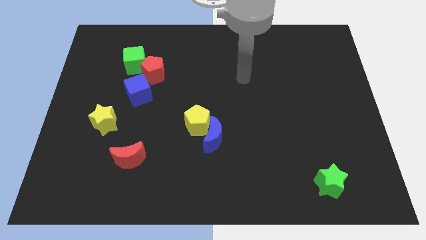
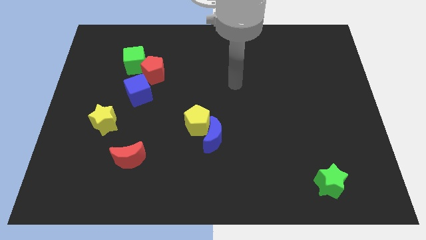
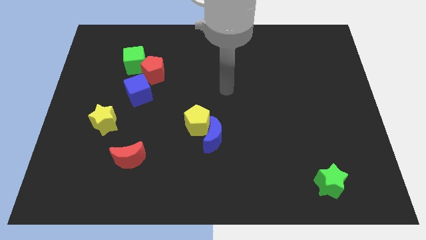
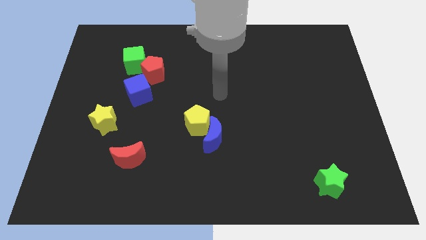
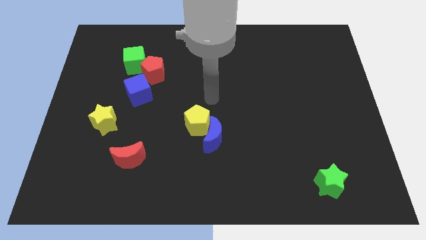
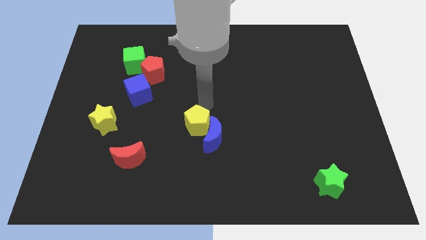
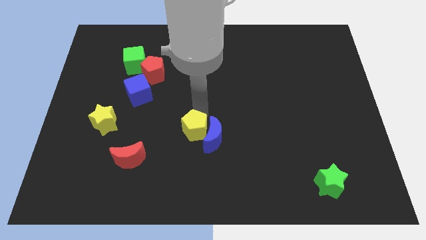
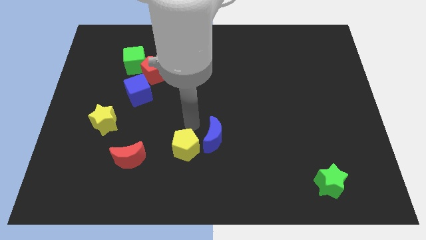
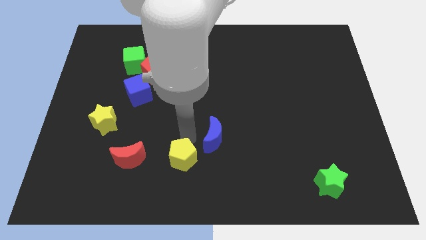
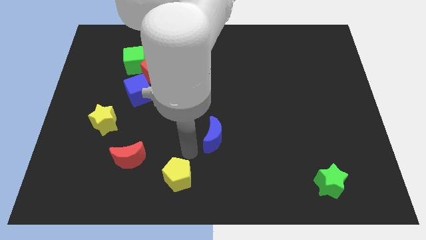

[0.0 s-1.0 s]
move the blue moon away from the yellow pentagon

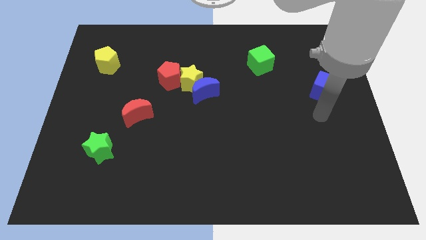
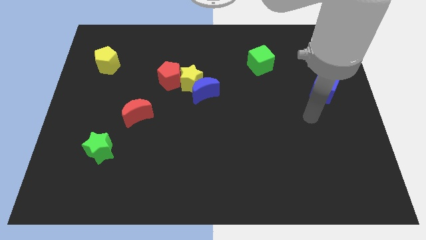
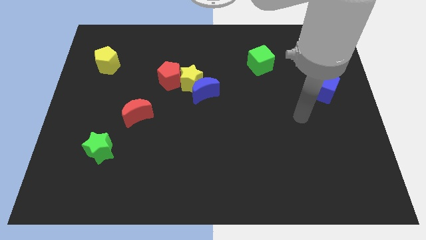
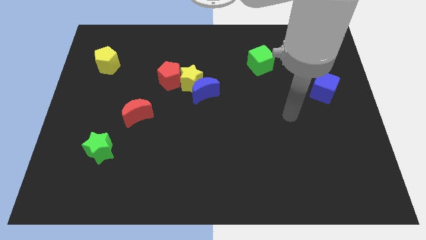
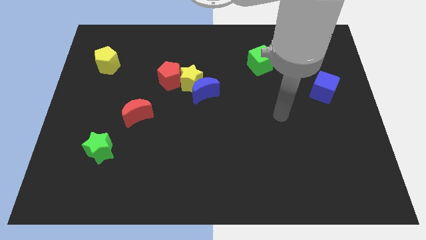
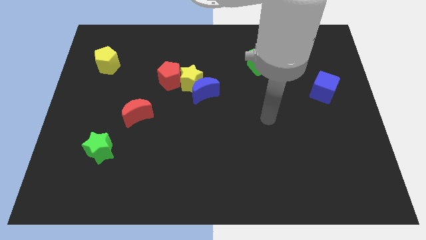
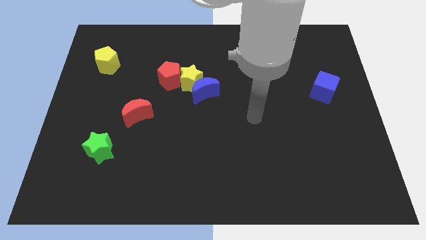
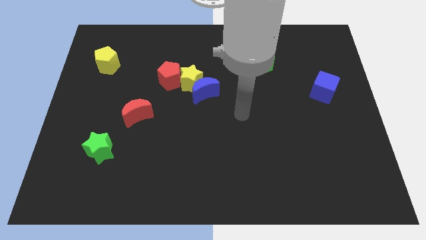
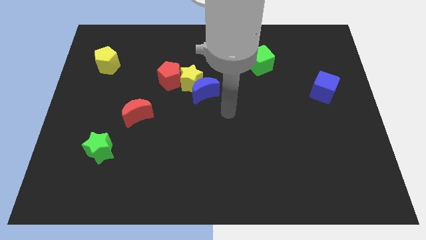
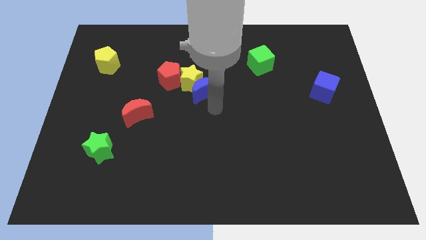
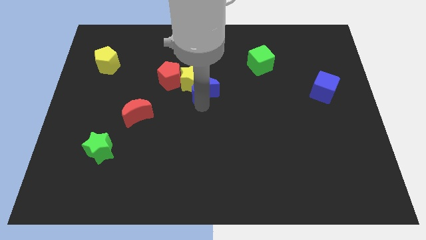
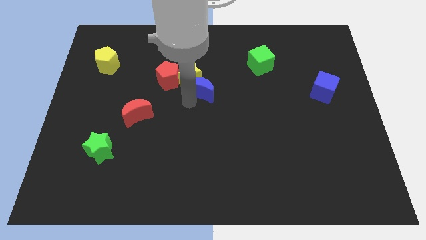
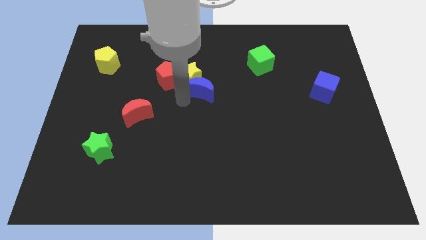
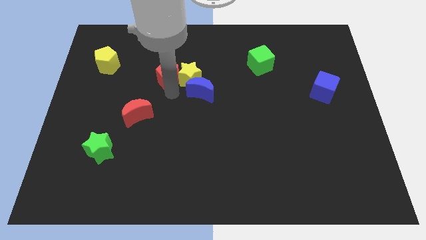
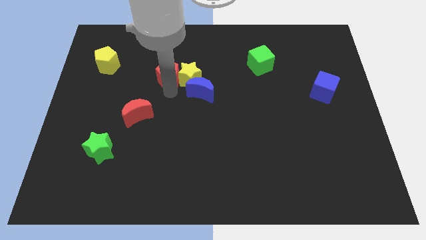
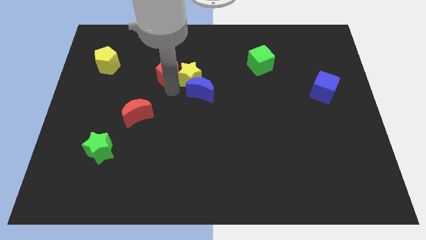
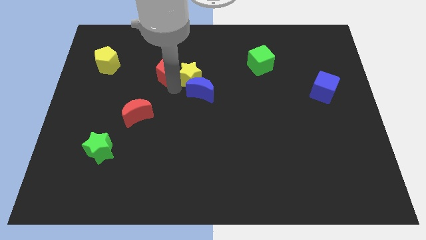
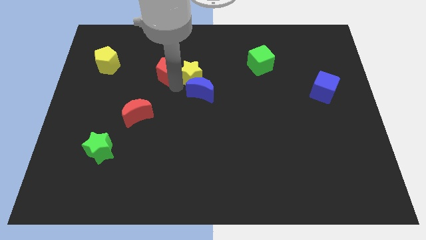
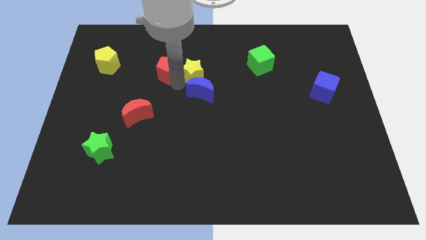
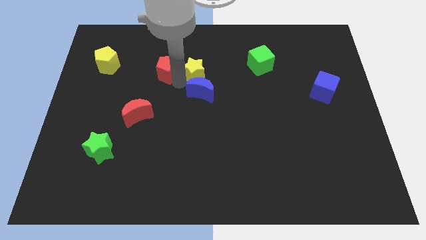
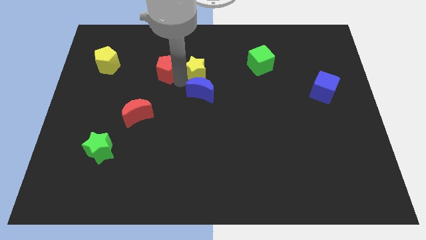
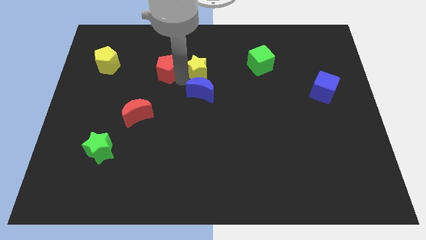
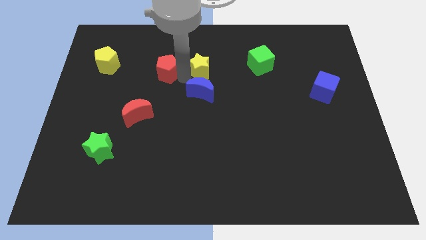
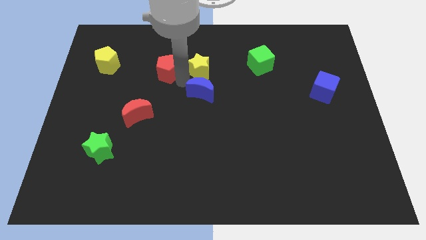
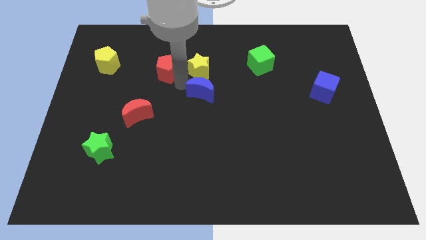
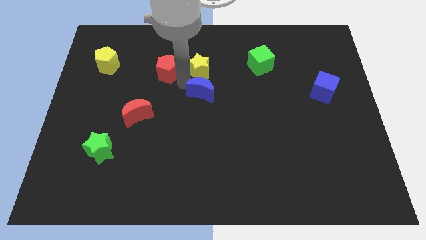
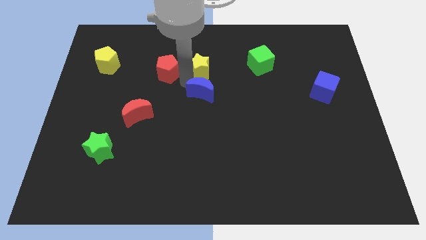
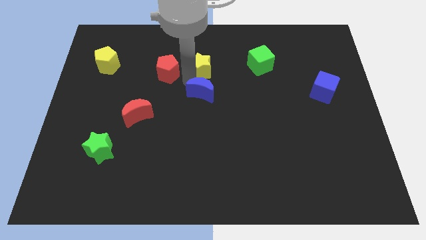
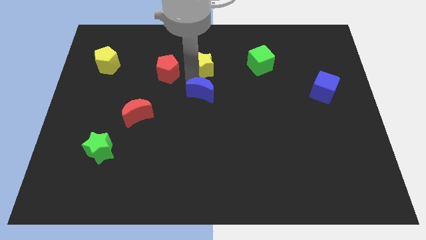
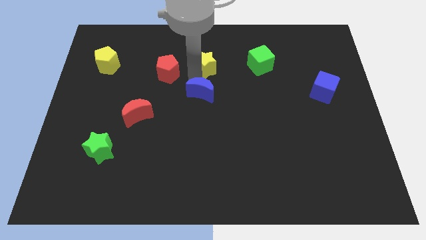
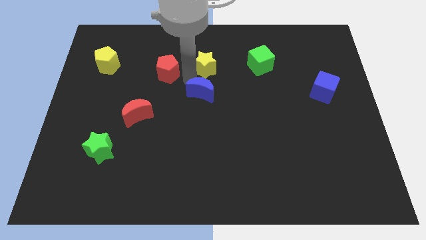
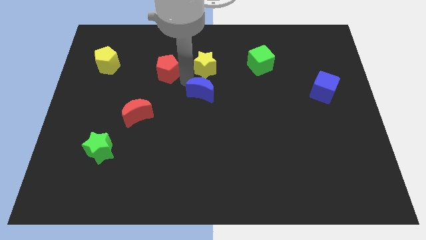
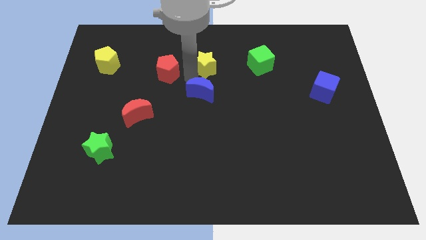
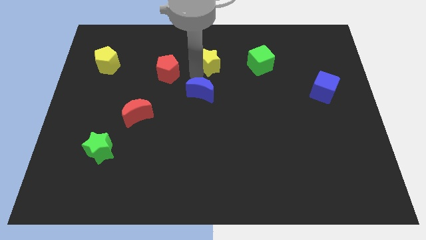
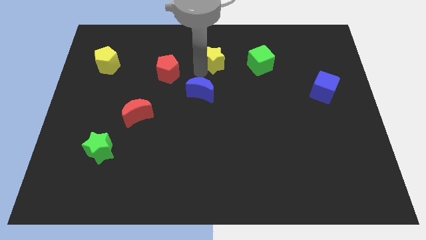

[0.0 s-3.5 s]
pull the yellow star apart from the blue moon and red pentagon

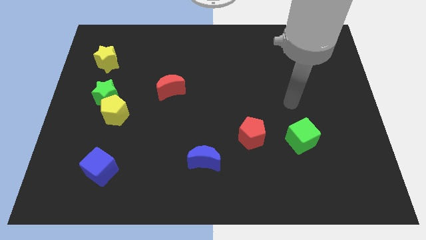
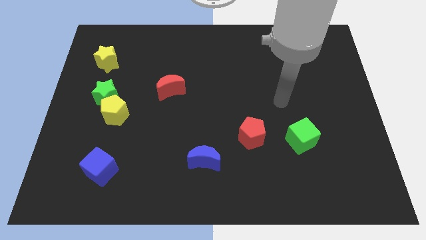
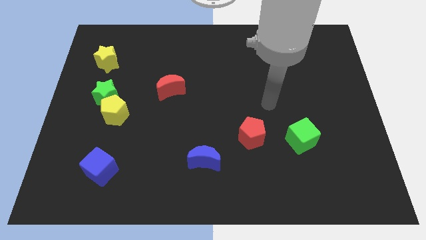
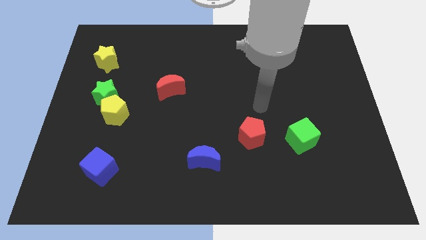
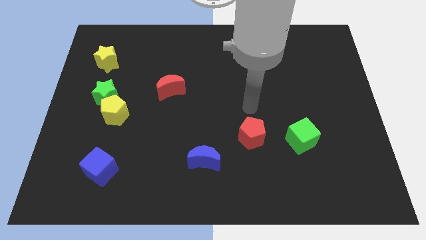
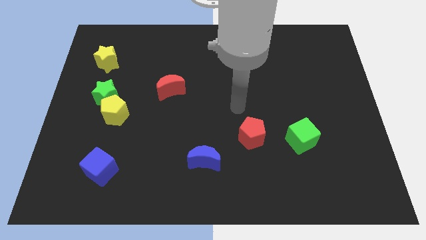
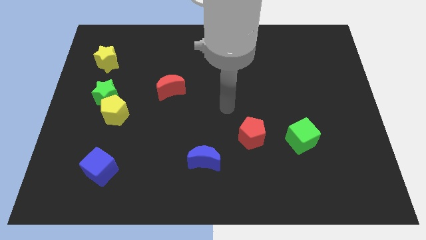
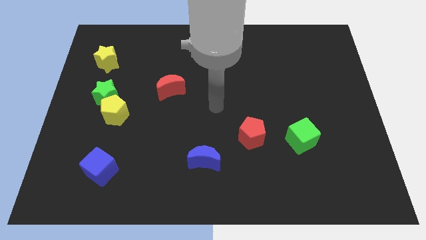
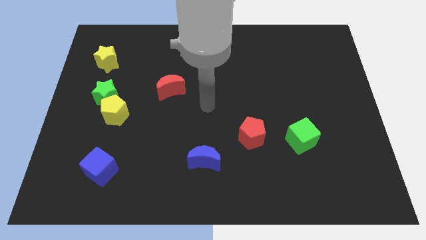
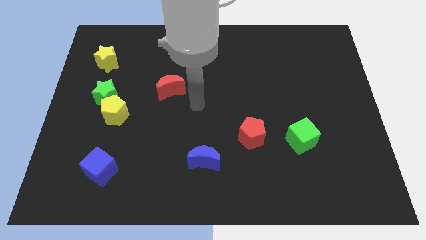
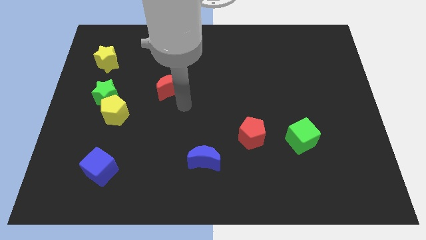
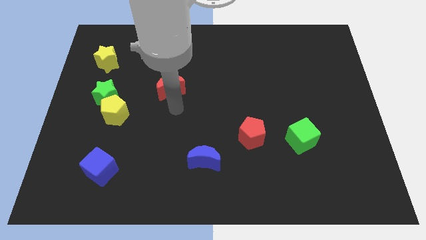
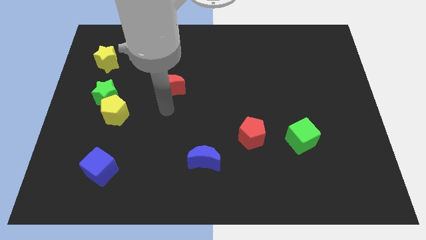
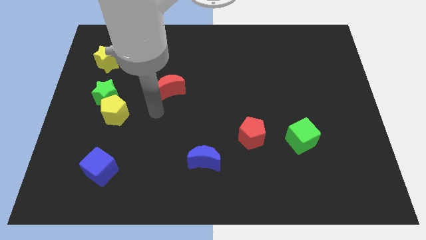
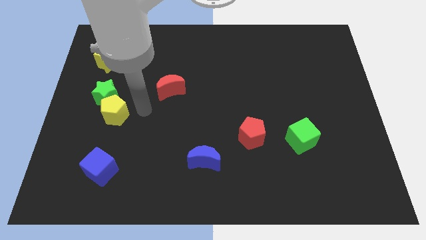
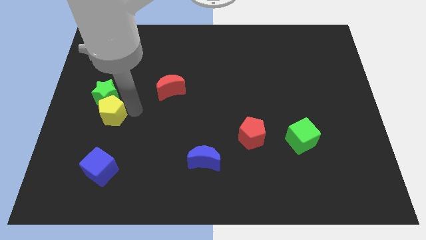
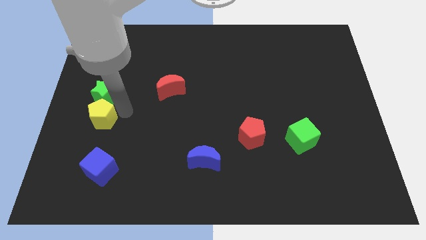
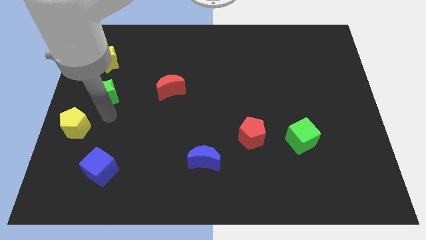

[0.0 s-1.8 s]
move the green star away from the yellow pentagon

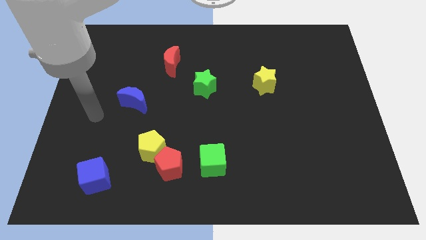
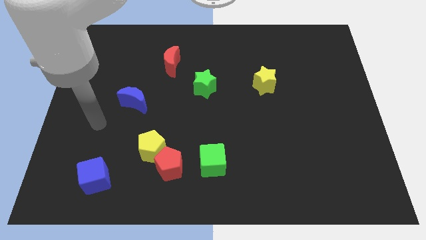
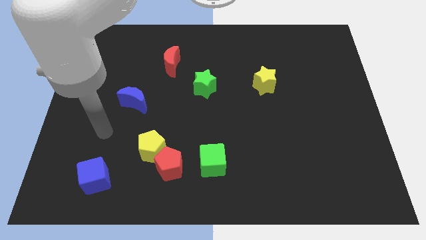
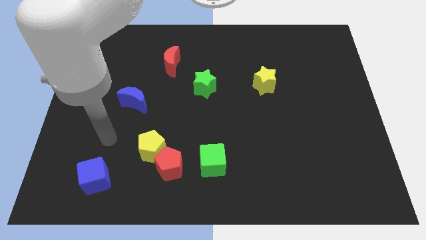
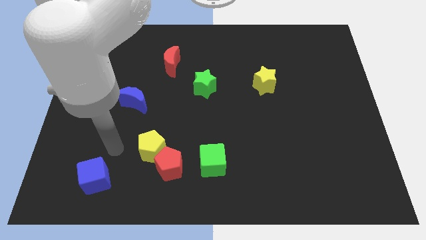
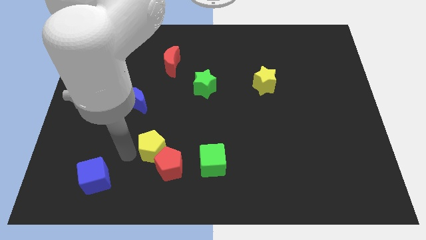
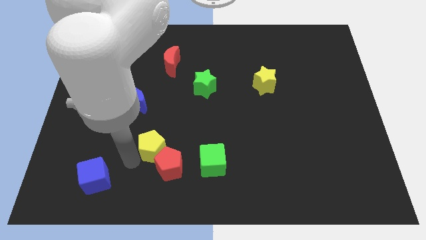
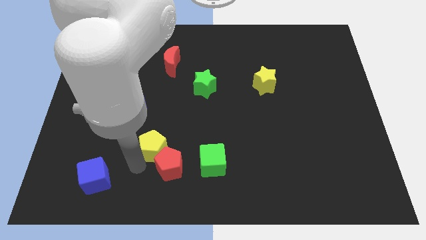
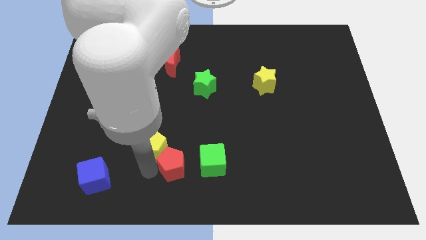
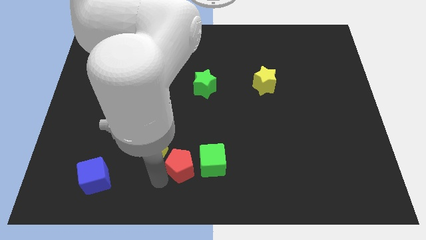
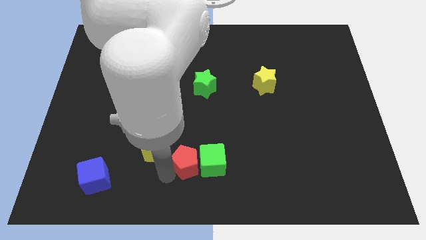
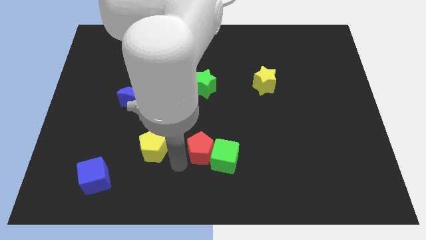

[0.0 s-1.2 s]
pull the yellow pentagon apart from the red pentagon

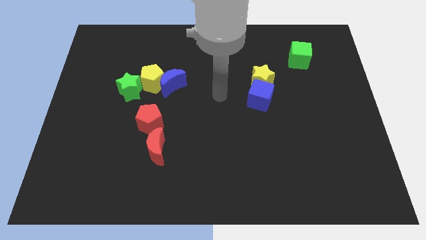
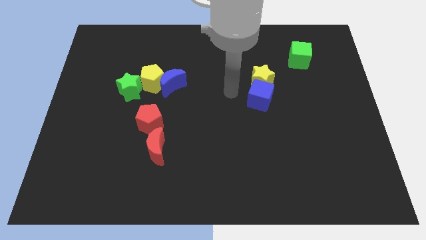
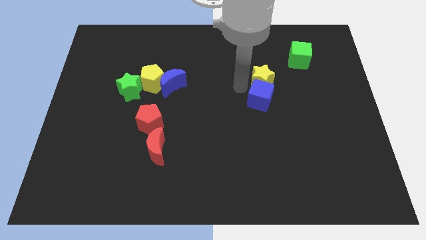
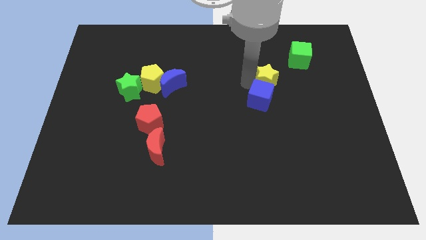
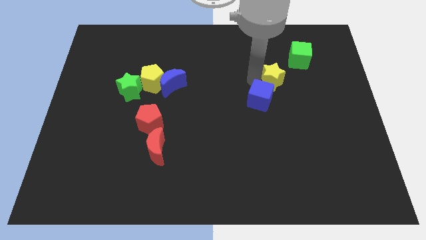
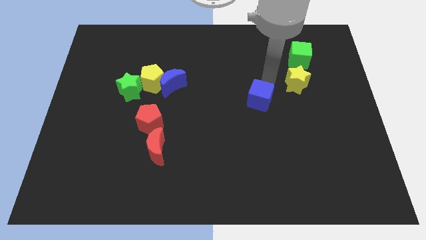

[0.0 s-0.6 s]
pull the blue cube apart from the yellow star

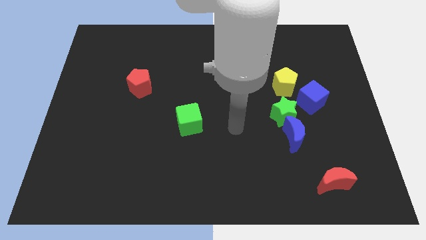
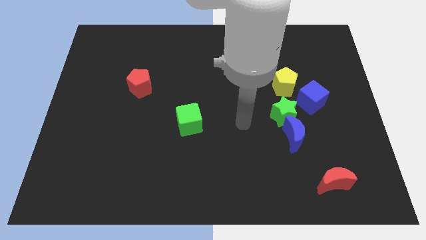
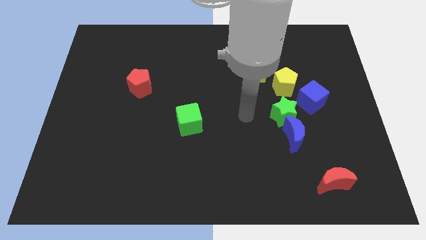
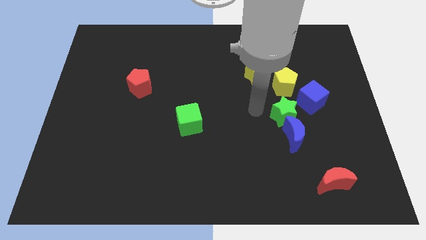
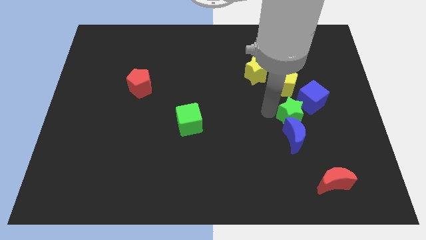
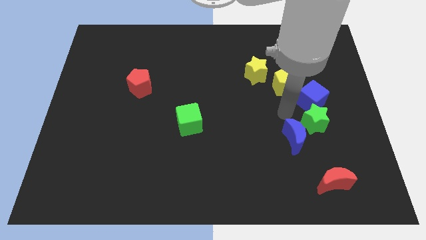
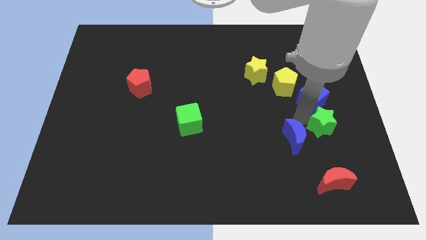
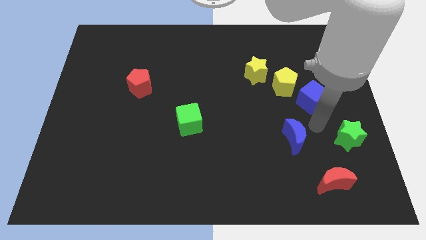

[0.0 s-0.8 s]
move the blue moon away from the green star

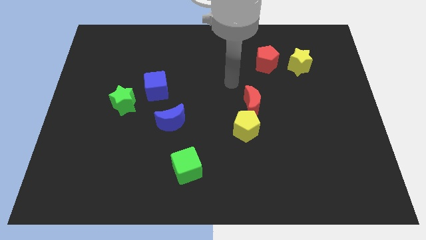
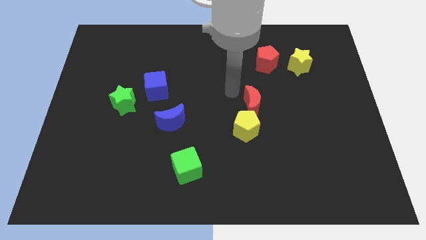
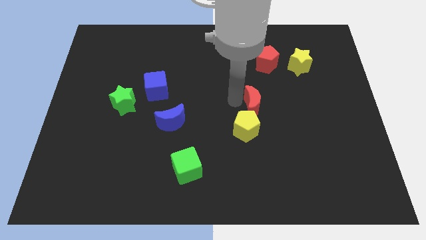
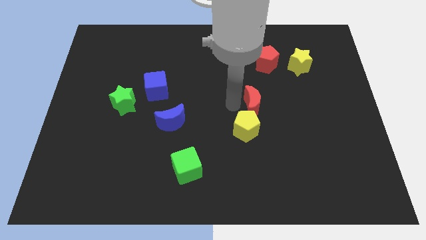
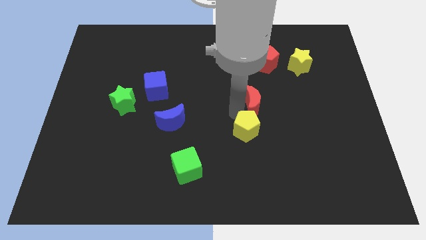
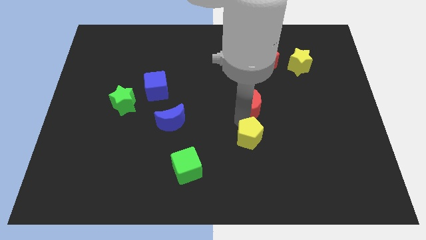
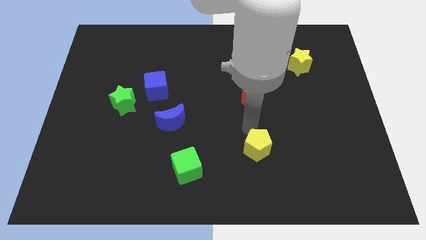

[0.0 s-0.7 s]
pull the red moon apart from the yellow pentagon
